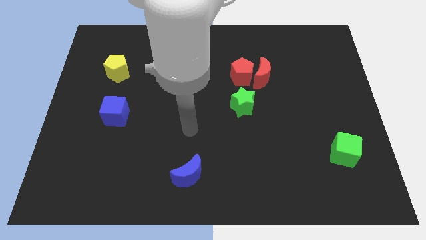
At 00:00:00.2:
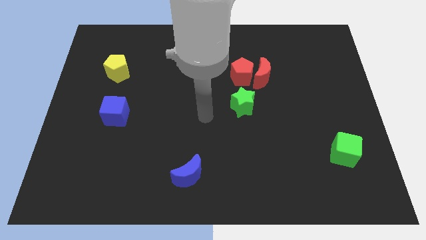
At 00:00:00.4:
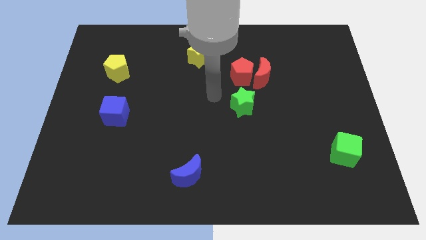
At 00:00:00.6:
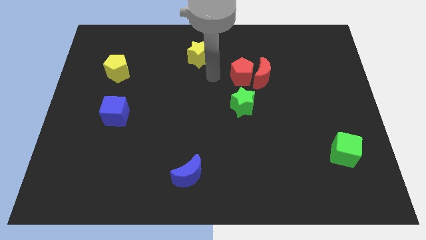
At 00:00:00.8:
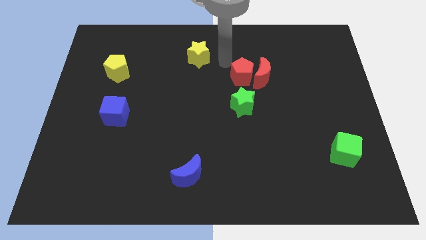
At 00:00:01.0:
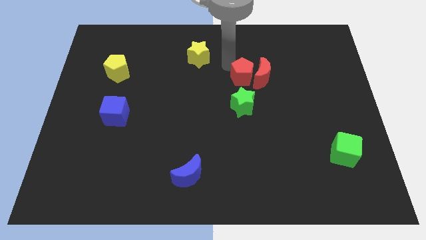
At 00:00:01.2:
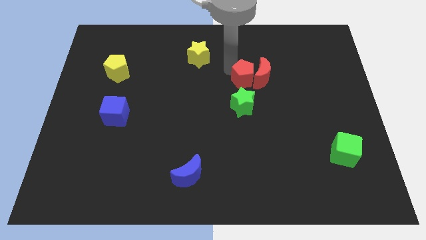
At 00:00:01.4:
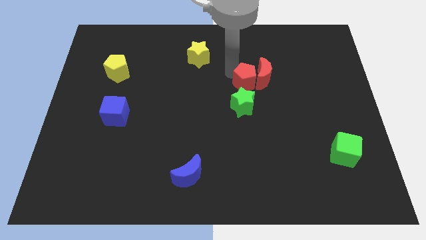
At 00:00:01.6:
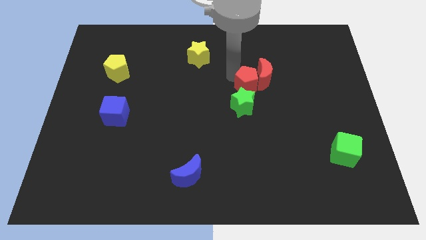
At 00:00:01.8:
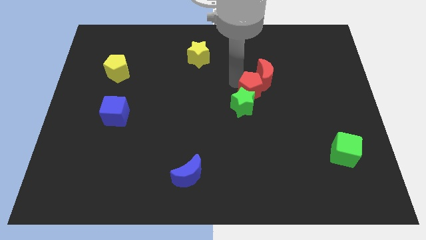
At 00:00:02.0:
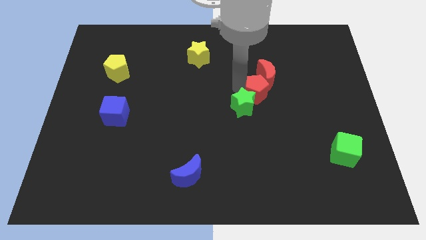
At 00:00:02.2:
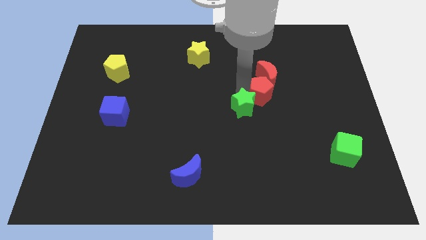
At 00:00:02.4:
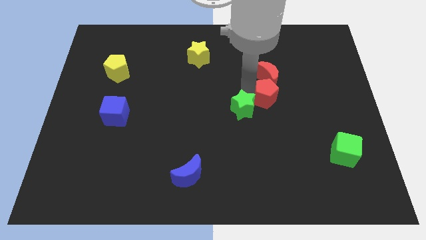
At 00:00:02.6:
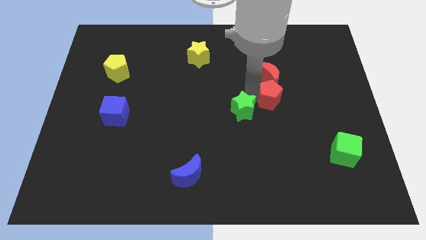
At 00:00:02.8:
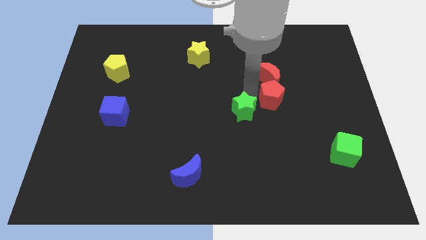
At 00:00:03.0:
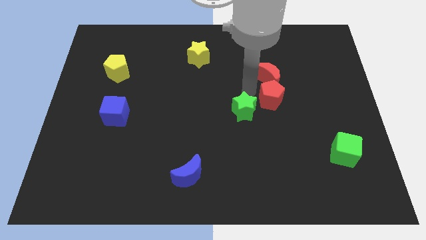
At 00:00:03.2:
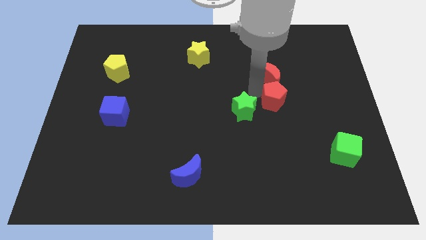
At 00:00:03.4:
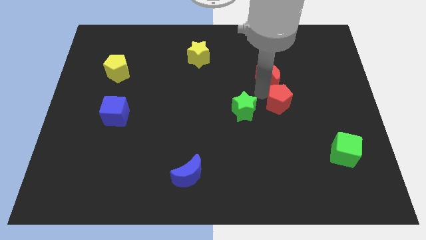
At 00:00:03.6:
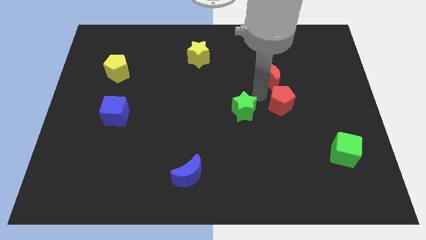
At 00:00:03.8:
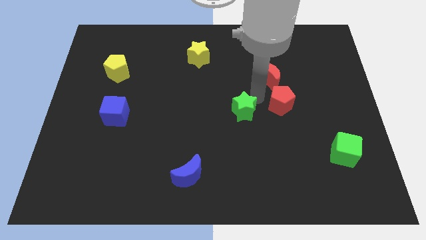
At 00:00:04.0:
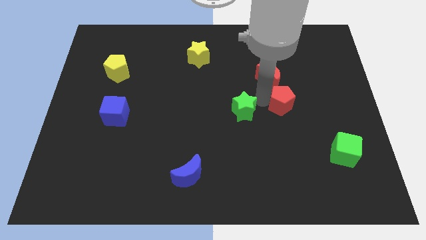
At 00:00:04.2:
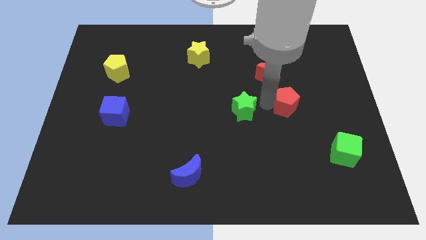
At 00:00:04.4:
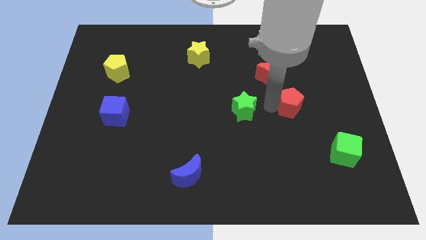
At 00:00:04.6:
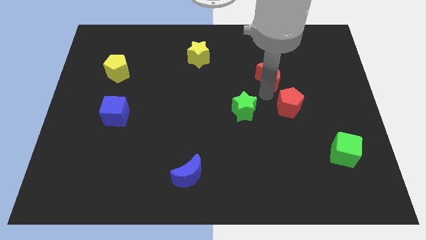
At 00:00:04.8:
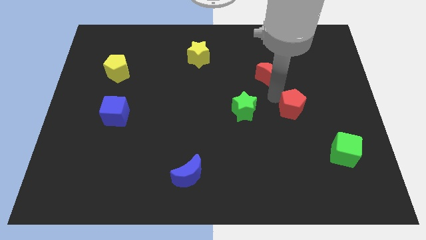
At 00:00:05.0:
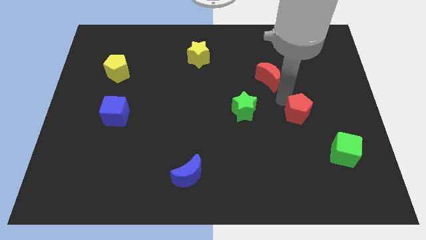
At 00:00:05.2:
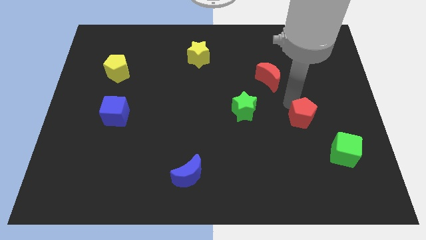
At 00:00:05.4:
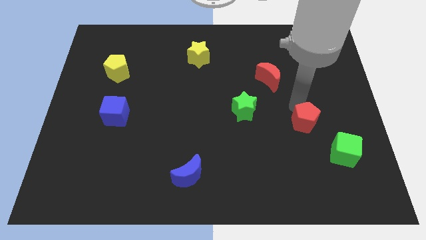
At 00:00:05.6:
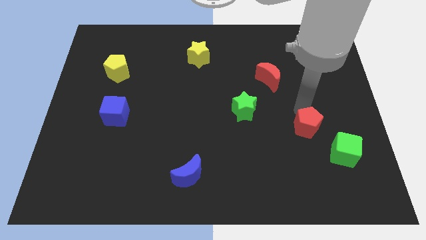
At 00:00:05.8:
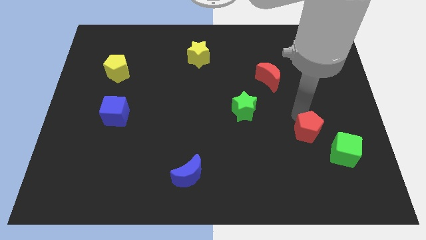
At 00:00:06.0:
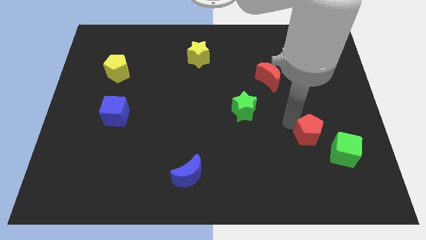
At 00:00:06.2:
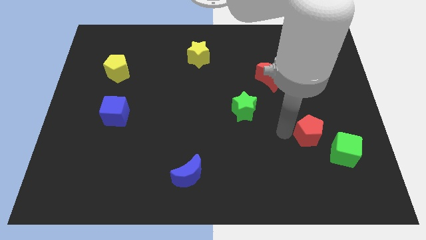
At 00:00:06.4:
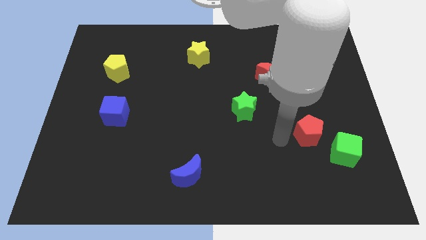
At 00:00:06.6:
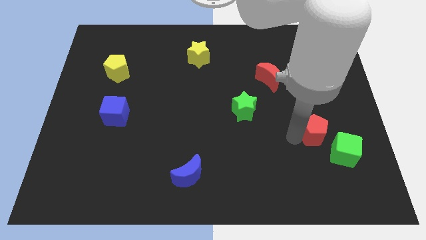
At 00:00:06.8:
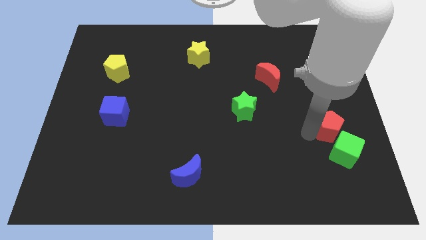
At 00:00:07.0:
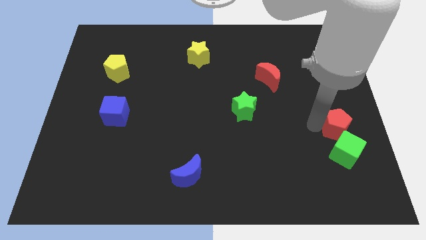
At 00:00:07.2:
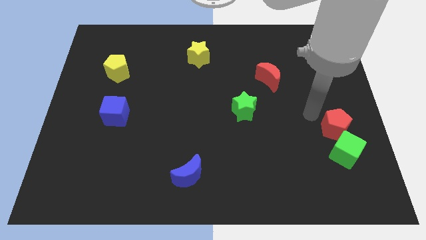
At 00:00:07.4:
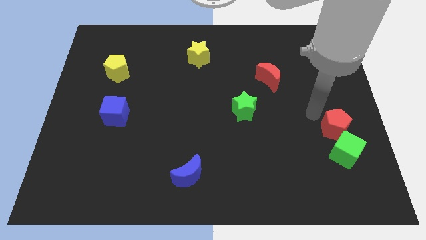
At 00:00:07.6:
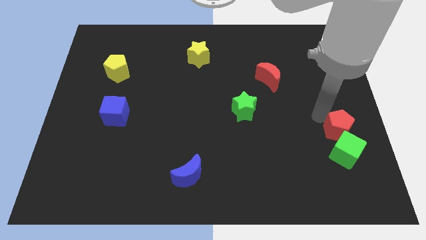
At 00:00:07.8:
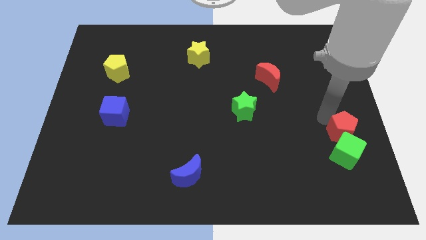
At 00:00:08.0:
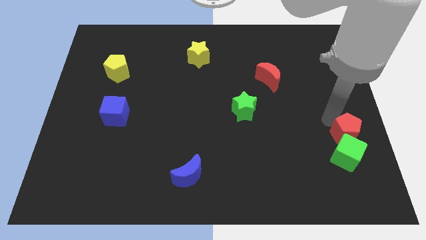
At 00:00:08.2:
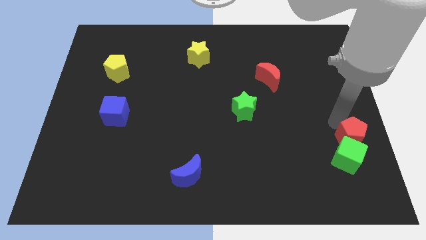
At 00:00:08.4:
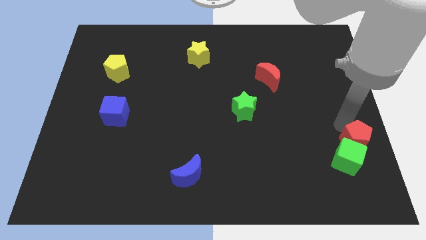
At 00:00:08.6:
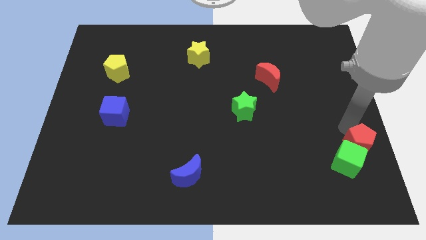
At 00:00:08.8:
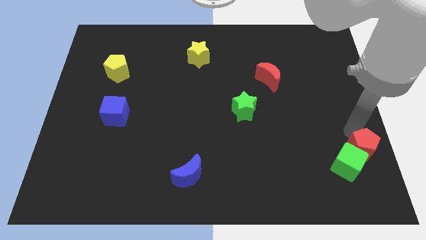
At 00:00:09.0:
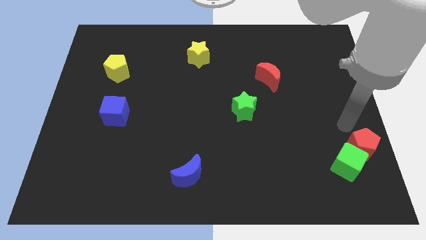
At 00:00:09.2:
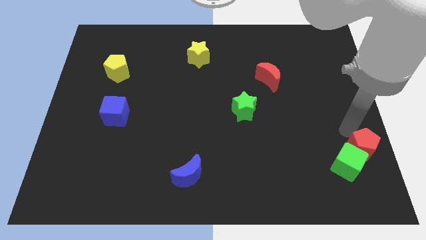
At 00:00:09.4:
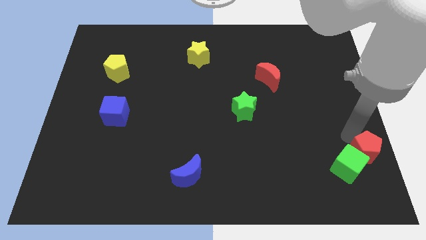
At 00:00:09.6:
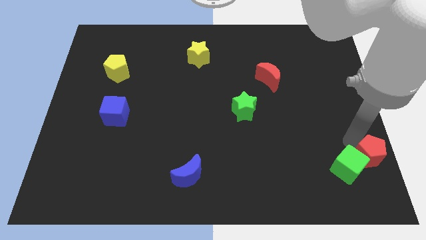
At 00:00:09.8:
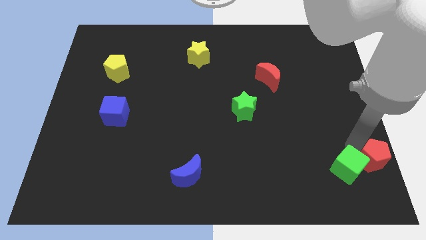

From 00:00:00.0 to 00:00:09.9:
put the red pentagon to the bottom right of the board

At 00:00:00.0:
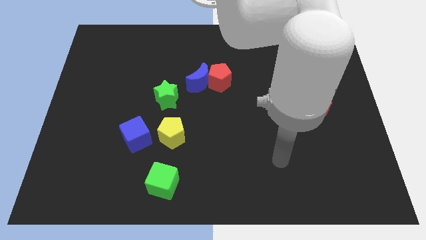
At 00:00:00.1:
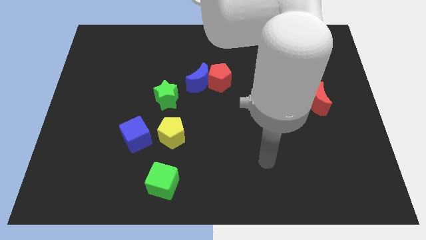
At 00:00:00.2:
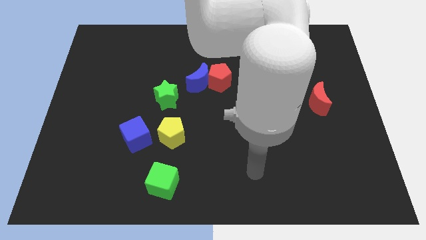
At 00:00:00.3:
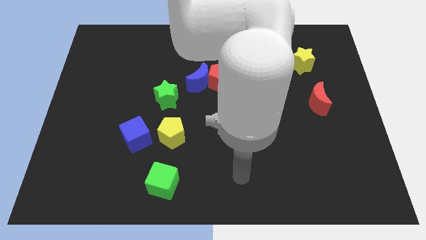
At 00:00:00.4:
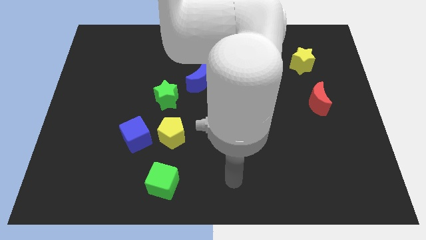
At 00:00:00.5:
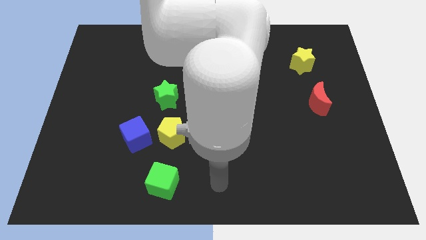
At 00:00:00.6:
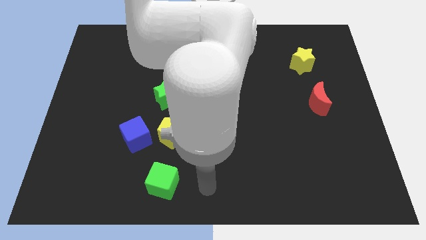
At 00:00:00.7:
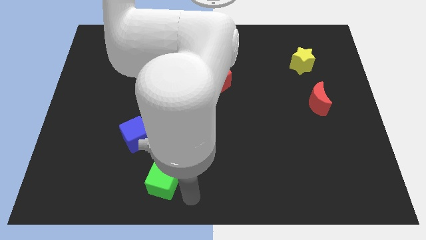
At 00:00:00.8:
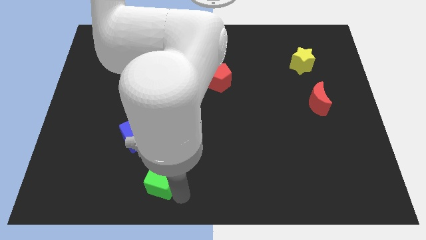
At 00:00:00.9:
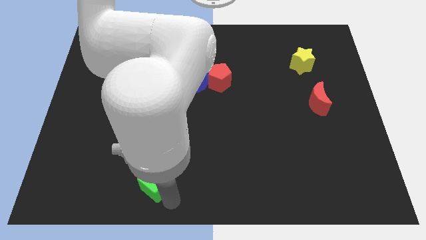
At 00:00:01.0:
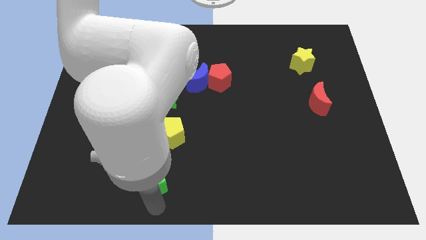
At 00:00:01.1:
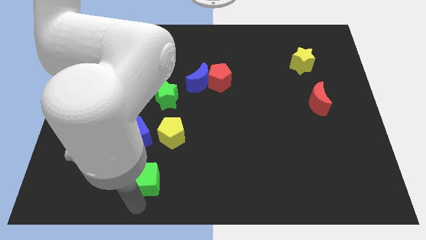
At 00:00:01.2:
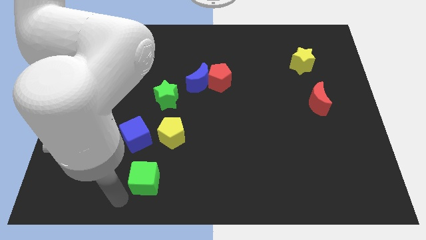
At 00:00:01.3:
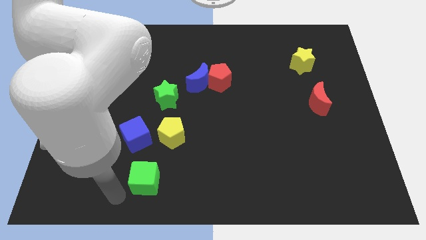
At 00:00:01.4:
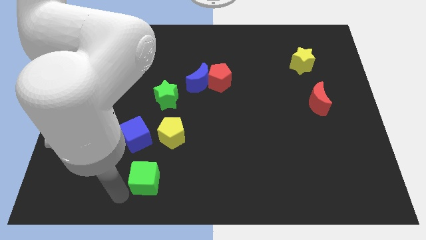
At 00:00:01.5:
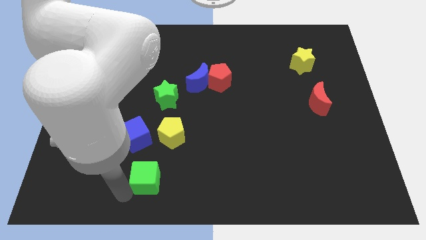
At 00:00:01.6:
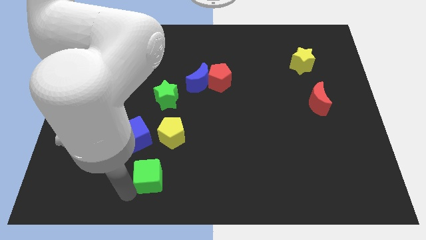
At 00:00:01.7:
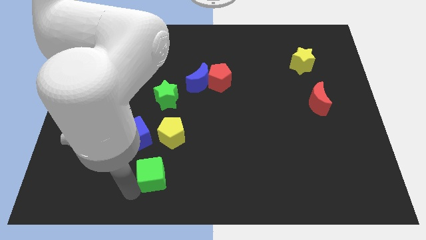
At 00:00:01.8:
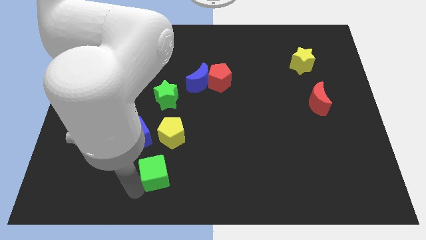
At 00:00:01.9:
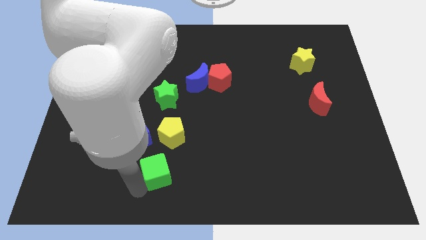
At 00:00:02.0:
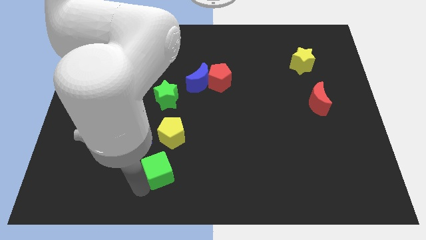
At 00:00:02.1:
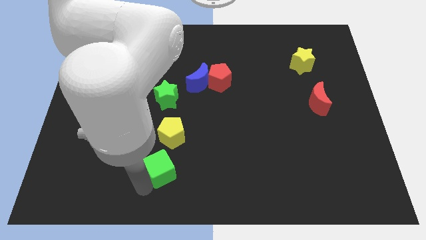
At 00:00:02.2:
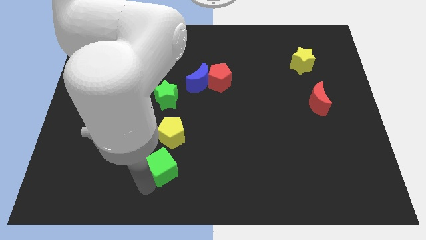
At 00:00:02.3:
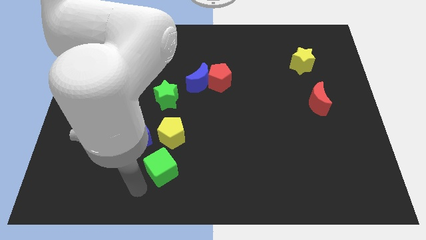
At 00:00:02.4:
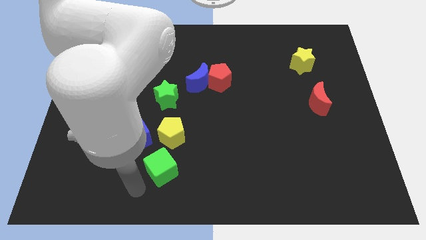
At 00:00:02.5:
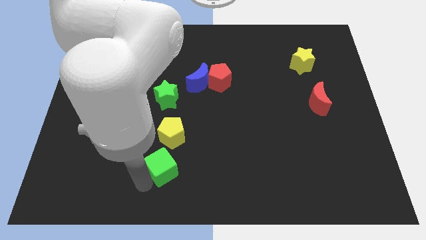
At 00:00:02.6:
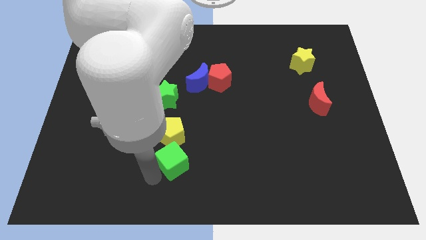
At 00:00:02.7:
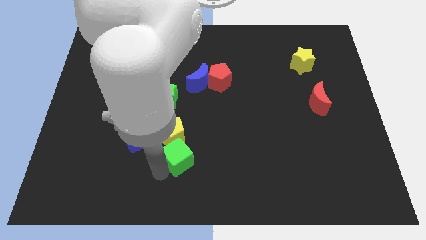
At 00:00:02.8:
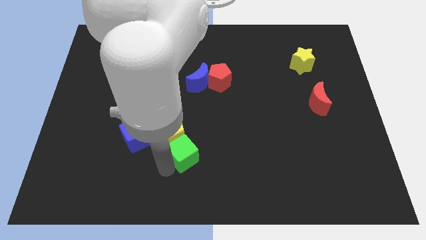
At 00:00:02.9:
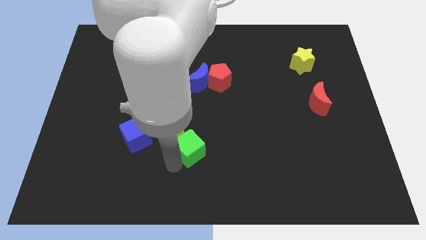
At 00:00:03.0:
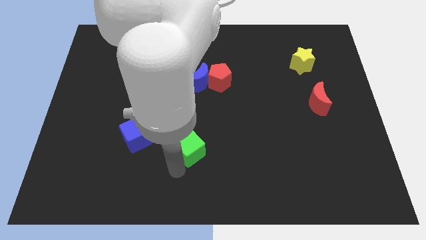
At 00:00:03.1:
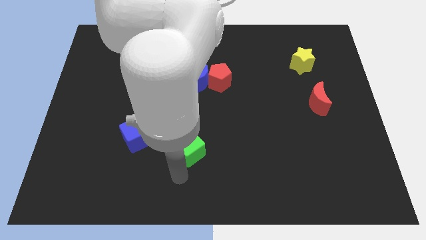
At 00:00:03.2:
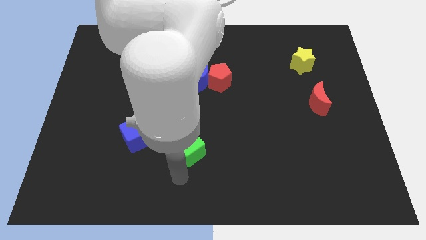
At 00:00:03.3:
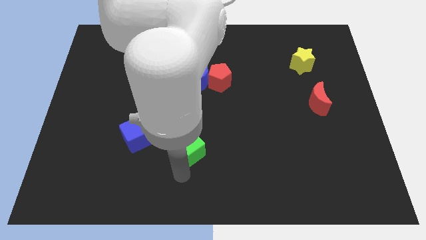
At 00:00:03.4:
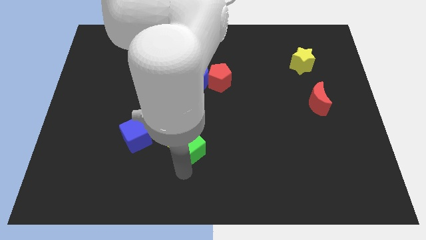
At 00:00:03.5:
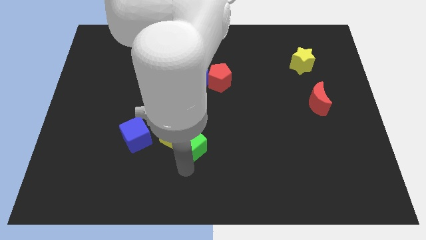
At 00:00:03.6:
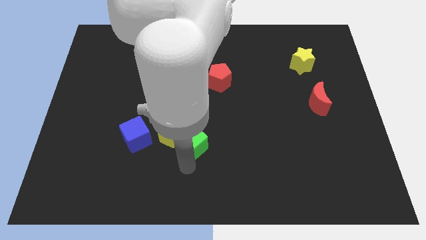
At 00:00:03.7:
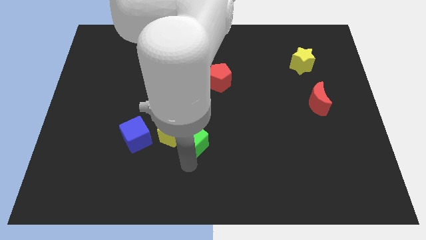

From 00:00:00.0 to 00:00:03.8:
slide the green cube to the center
